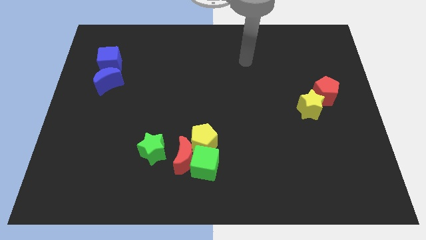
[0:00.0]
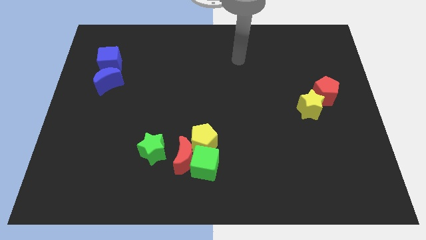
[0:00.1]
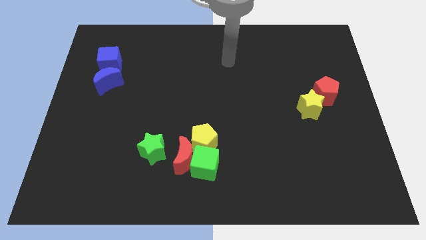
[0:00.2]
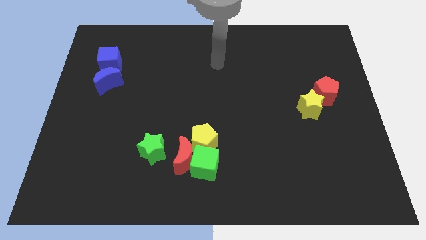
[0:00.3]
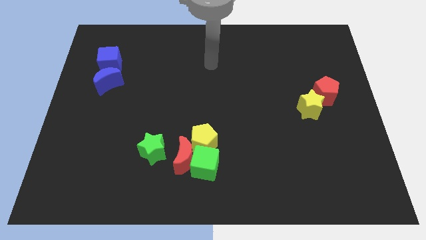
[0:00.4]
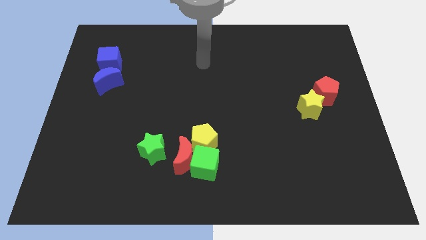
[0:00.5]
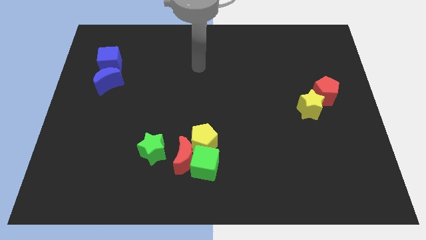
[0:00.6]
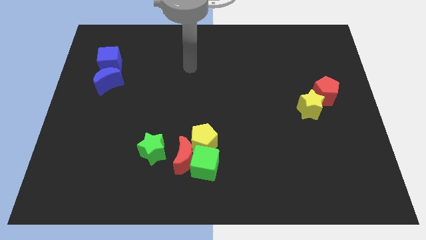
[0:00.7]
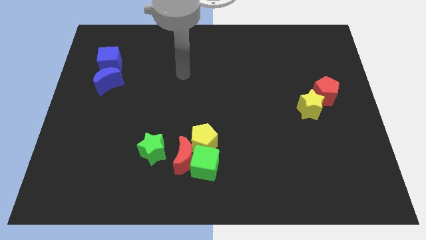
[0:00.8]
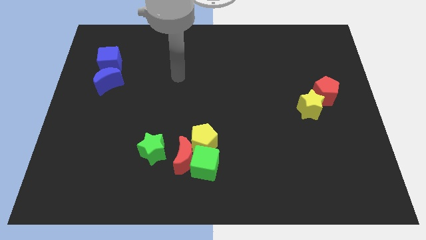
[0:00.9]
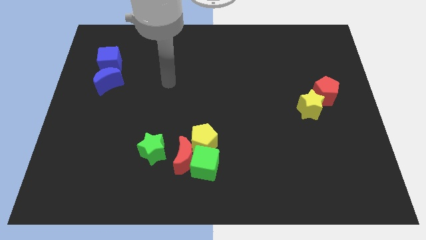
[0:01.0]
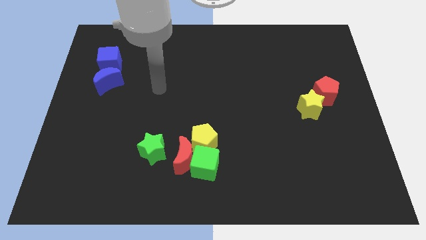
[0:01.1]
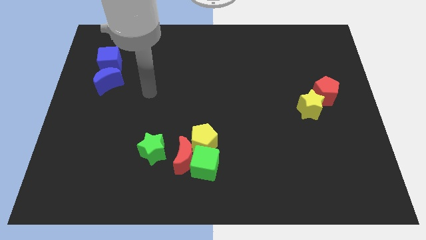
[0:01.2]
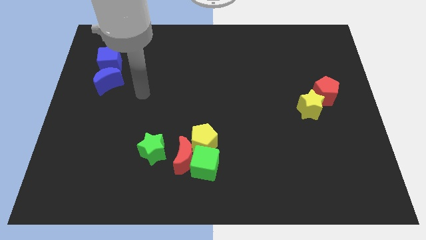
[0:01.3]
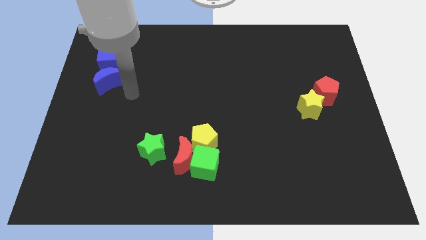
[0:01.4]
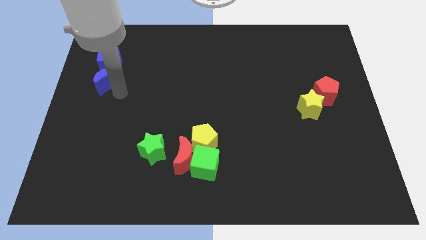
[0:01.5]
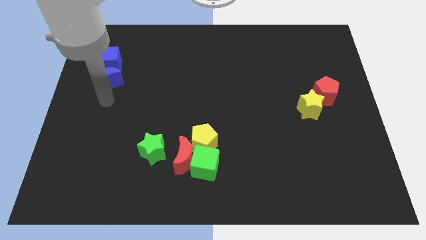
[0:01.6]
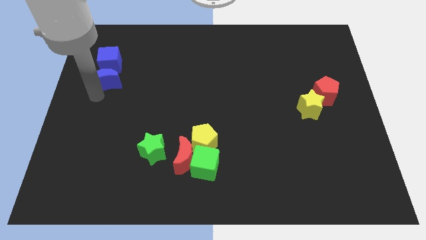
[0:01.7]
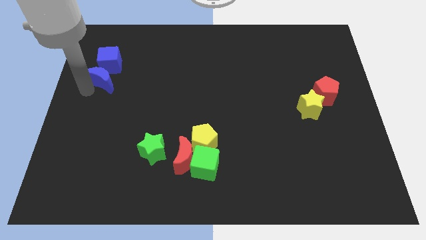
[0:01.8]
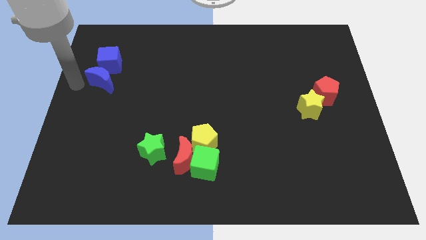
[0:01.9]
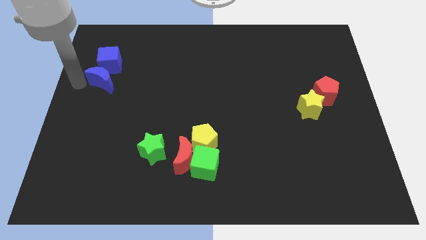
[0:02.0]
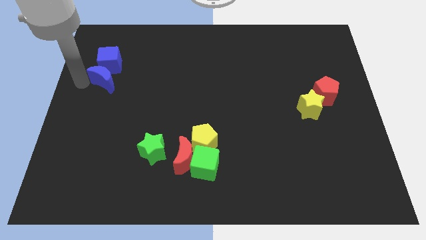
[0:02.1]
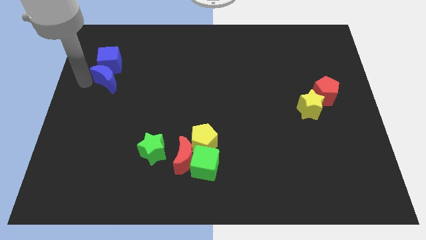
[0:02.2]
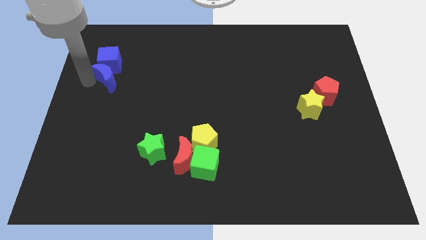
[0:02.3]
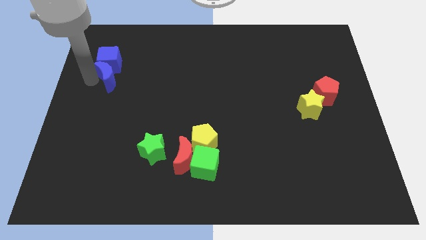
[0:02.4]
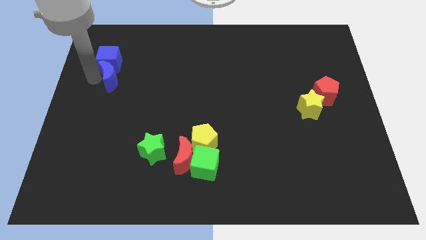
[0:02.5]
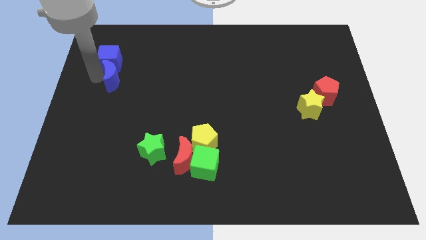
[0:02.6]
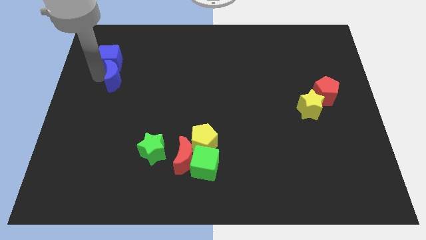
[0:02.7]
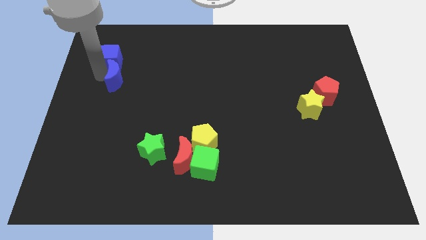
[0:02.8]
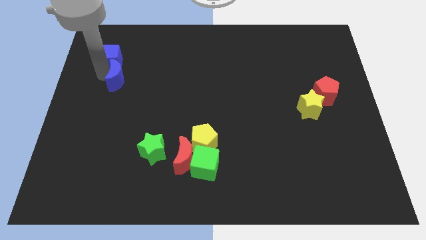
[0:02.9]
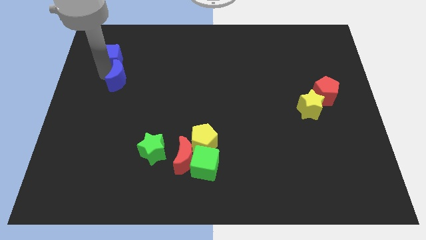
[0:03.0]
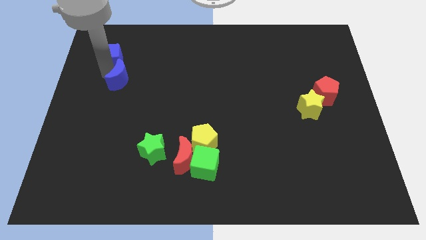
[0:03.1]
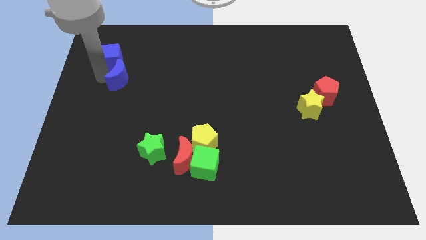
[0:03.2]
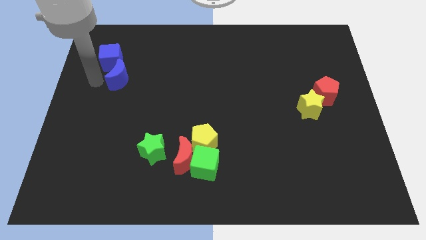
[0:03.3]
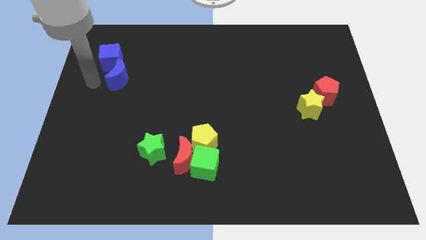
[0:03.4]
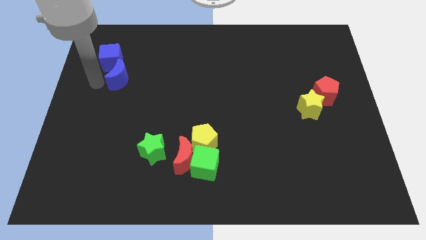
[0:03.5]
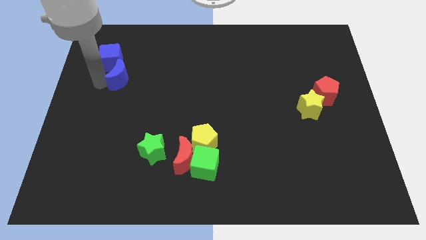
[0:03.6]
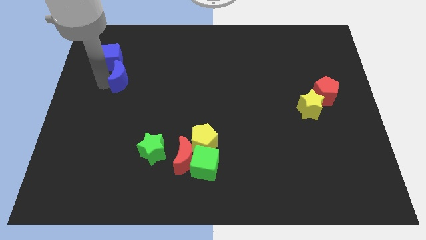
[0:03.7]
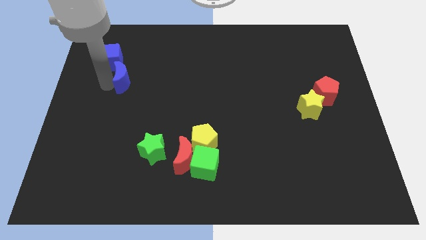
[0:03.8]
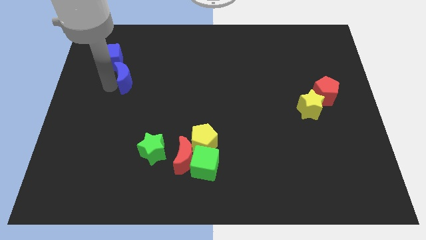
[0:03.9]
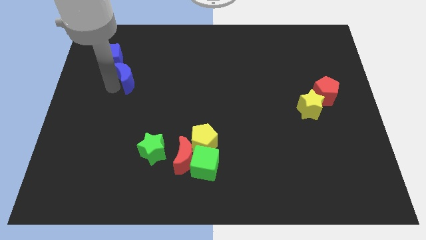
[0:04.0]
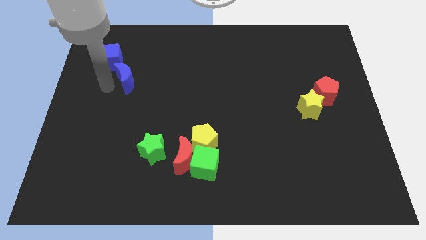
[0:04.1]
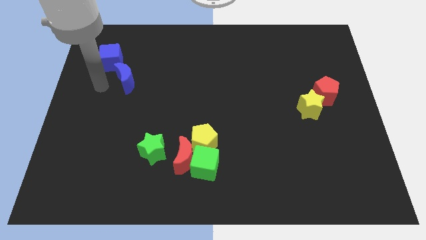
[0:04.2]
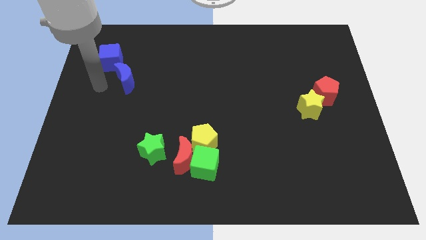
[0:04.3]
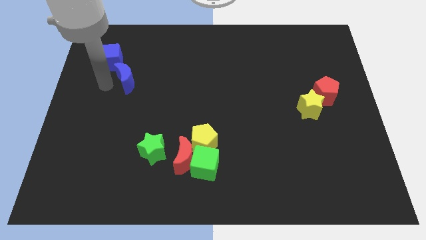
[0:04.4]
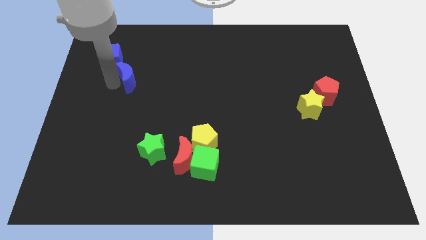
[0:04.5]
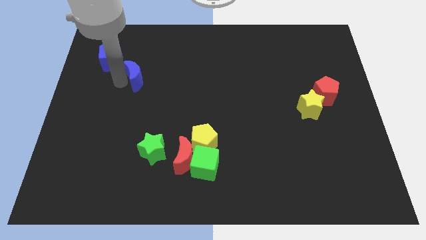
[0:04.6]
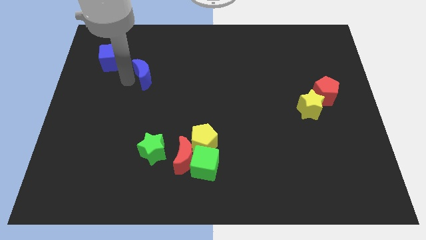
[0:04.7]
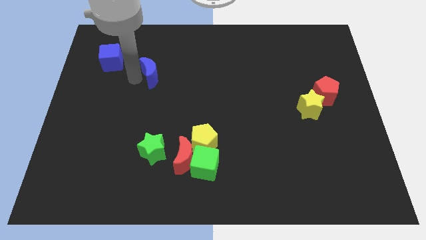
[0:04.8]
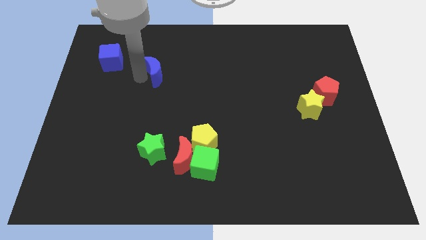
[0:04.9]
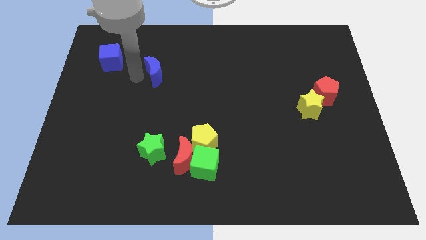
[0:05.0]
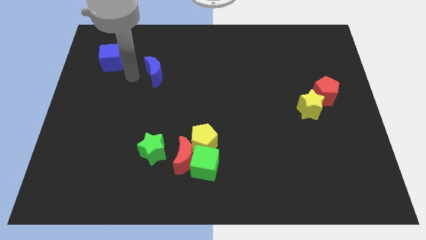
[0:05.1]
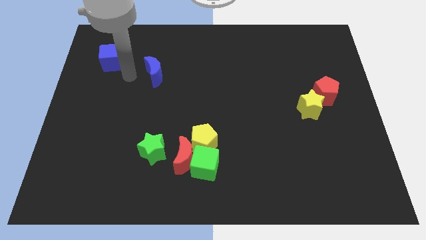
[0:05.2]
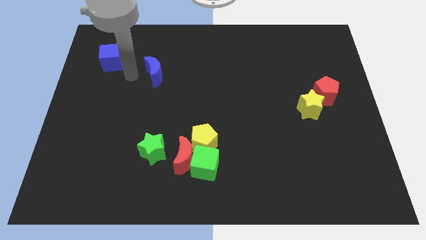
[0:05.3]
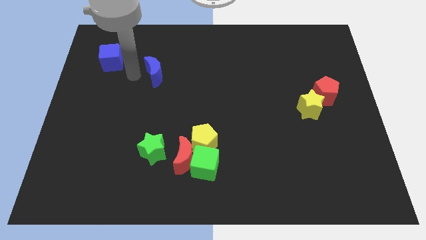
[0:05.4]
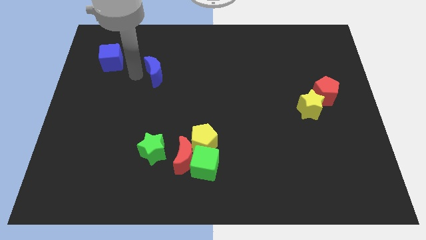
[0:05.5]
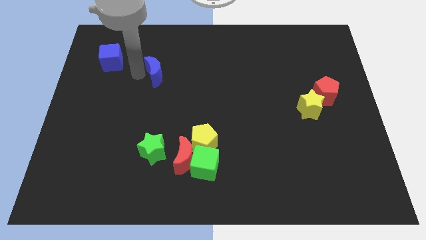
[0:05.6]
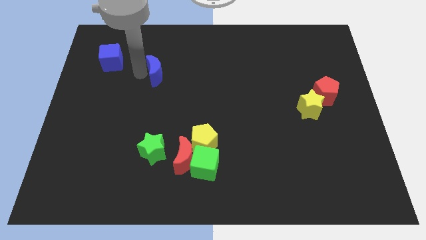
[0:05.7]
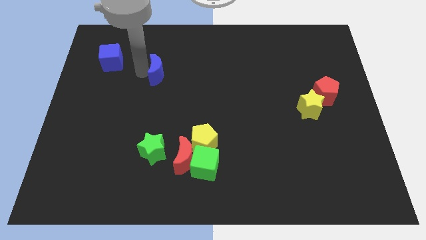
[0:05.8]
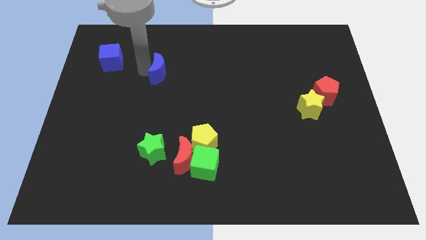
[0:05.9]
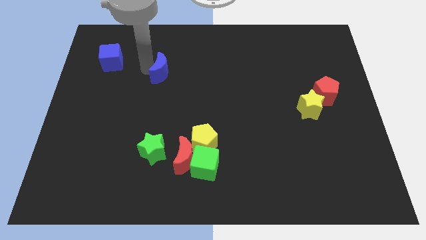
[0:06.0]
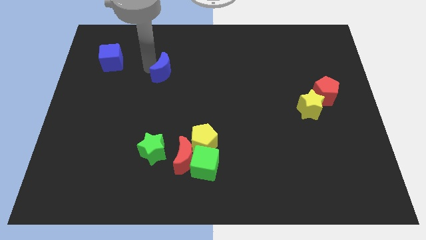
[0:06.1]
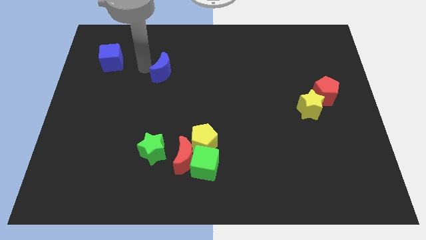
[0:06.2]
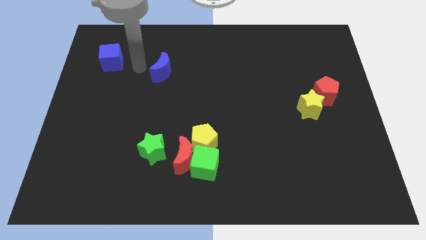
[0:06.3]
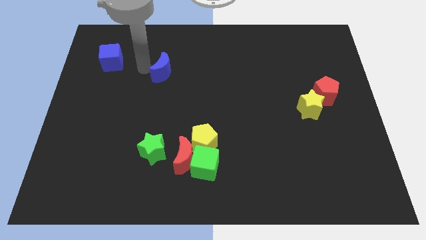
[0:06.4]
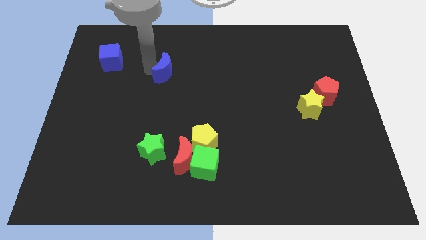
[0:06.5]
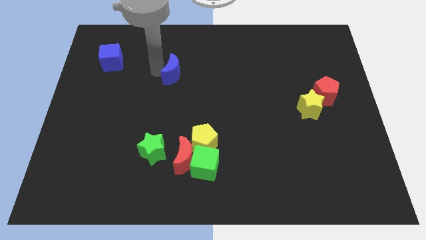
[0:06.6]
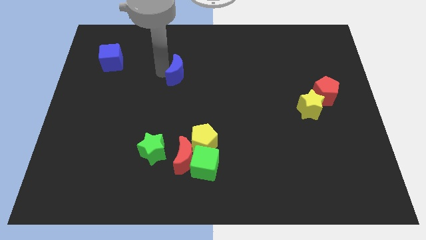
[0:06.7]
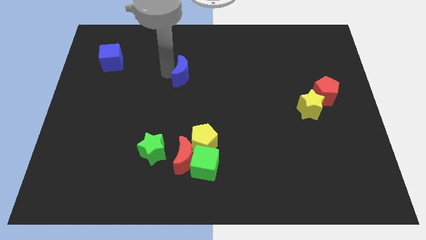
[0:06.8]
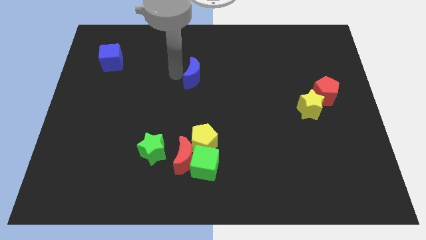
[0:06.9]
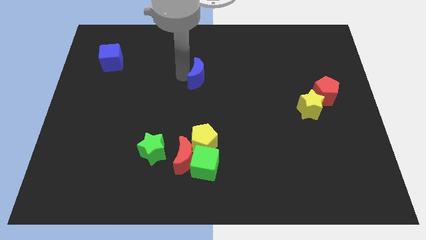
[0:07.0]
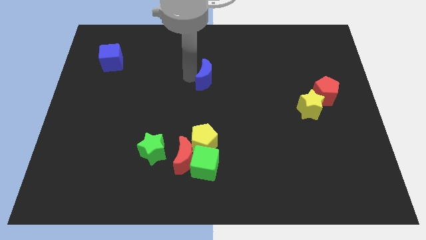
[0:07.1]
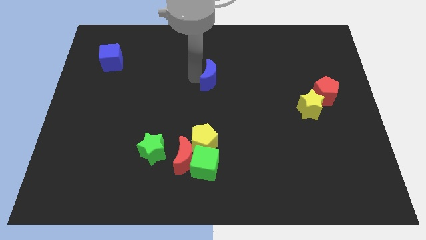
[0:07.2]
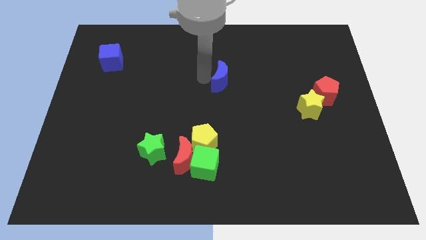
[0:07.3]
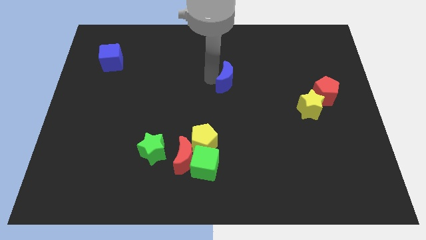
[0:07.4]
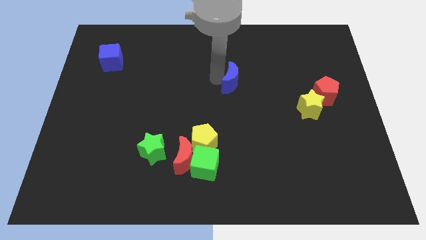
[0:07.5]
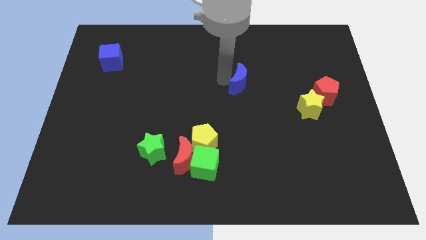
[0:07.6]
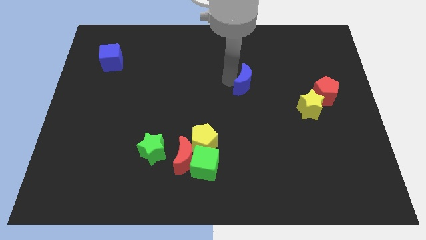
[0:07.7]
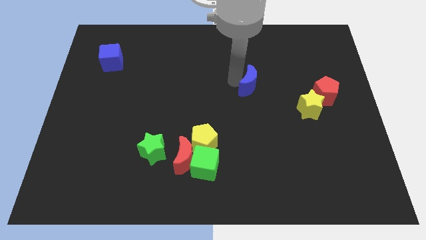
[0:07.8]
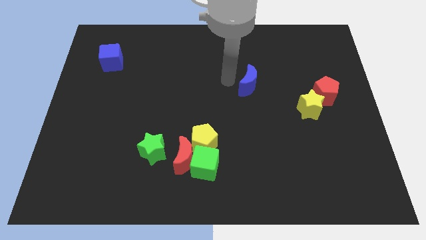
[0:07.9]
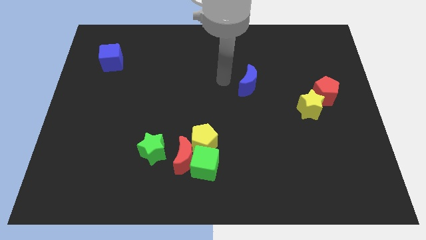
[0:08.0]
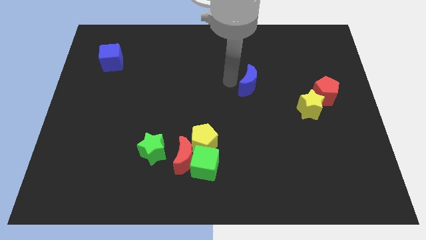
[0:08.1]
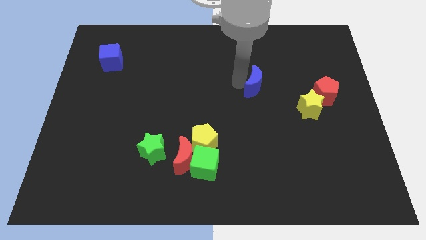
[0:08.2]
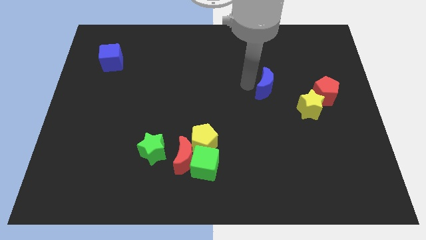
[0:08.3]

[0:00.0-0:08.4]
move the blue moon to the top left side of the yellow star
